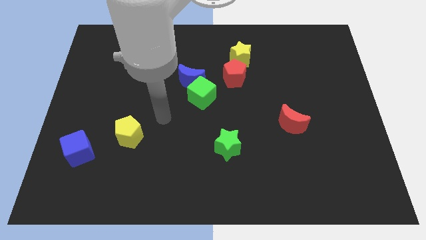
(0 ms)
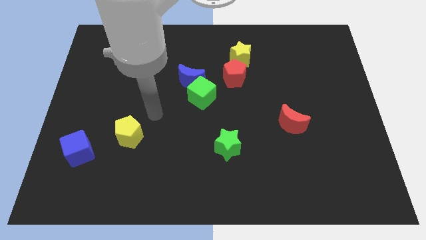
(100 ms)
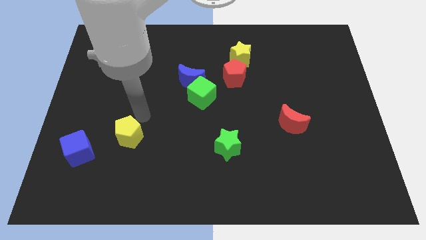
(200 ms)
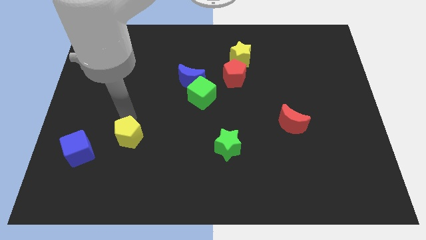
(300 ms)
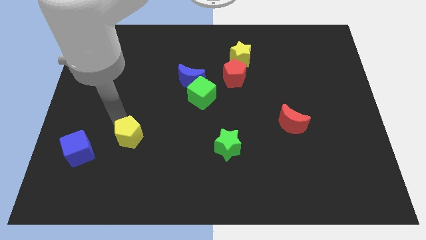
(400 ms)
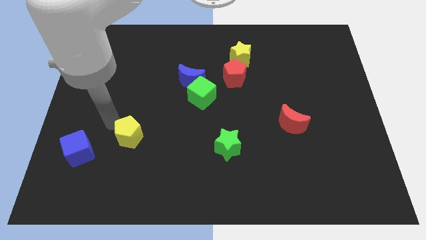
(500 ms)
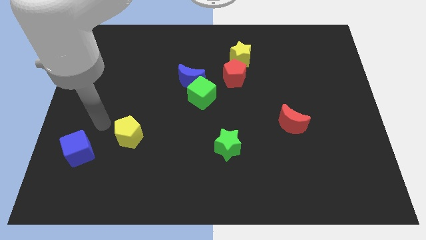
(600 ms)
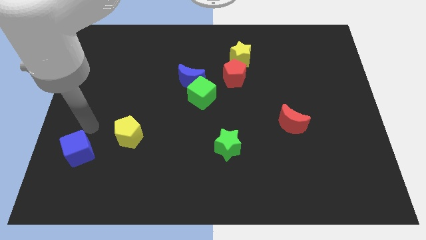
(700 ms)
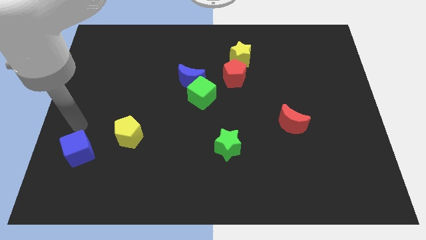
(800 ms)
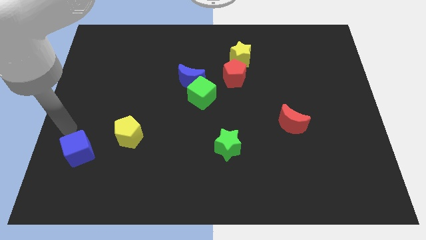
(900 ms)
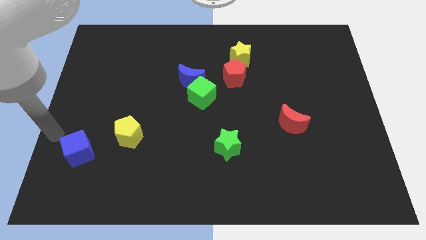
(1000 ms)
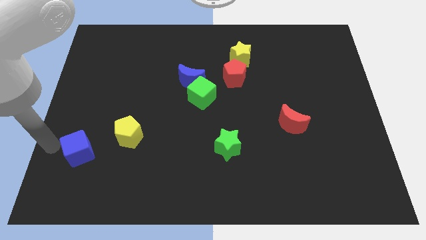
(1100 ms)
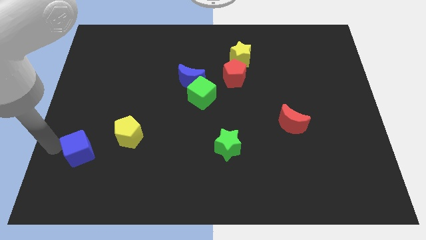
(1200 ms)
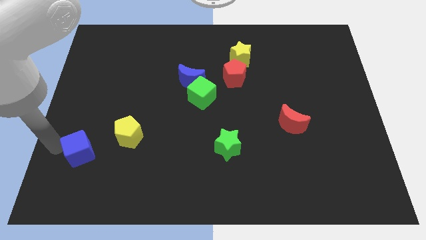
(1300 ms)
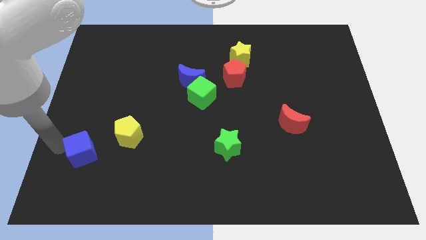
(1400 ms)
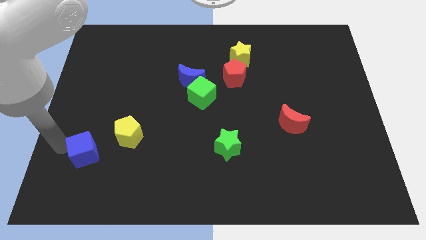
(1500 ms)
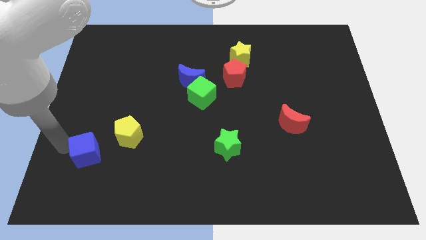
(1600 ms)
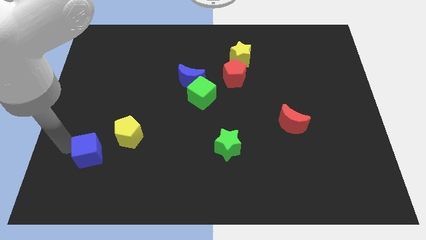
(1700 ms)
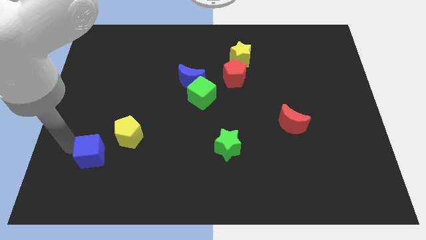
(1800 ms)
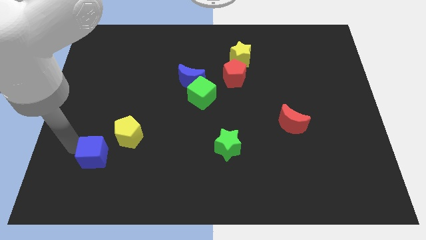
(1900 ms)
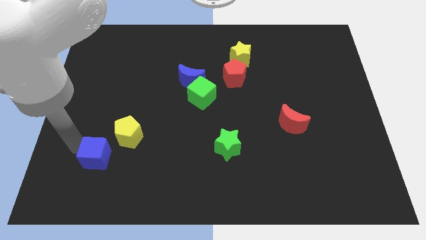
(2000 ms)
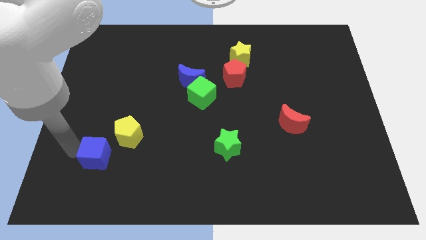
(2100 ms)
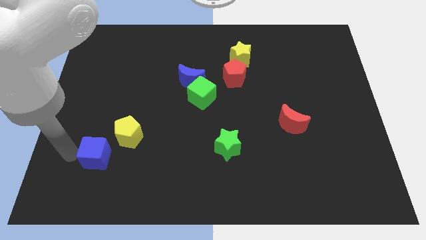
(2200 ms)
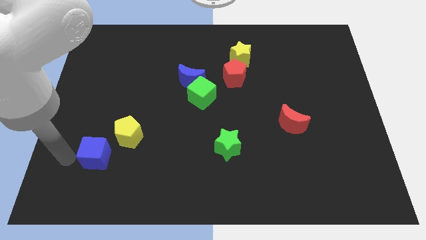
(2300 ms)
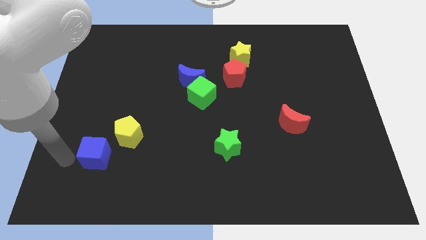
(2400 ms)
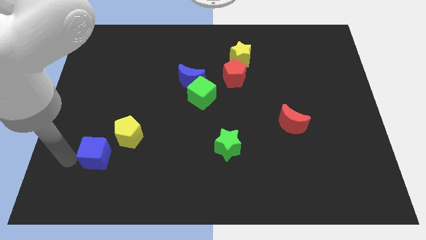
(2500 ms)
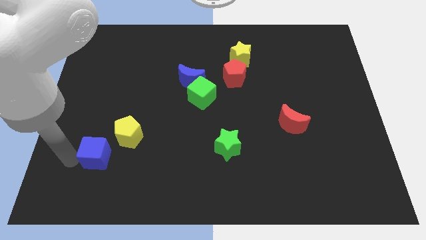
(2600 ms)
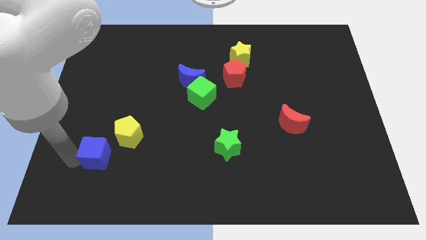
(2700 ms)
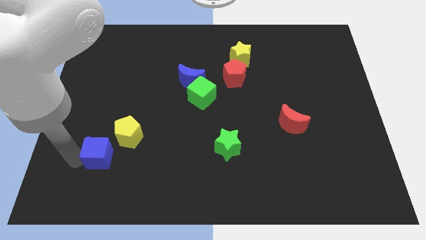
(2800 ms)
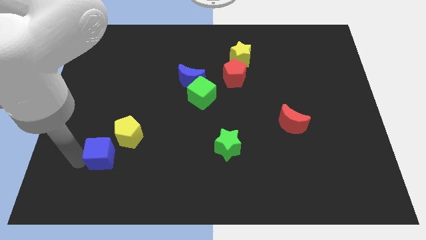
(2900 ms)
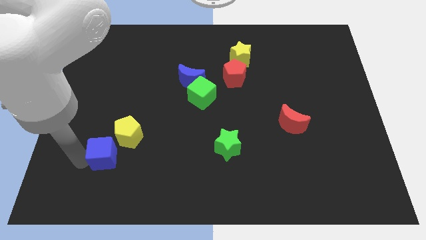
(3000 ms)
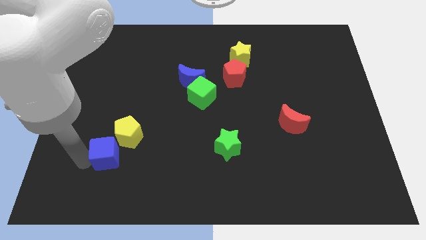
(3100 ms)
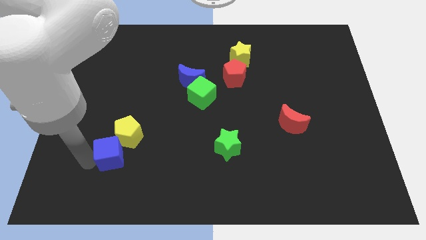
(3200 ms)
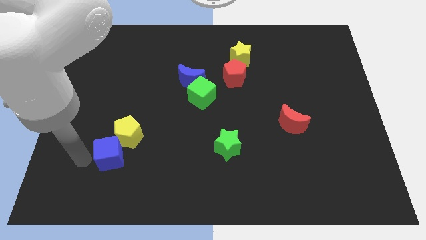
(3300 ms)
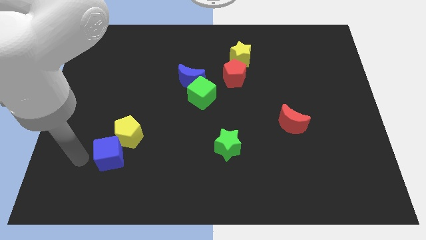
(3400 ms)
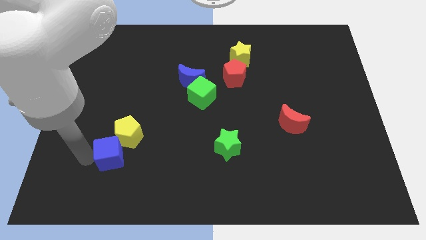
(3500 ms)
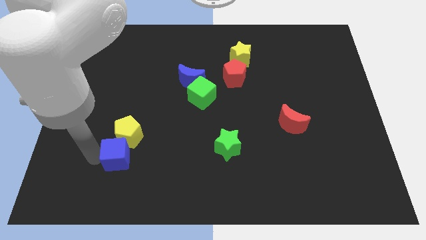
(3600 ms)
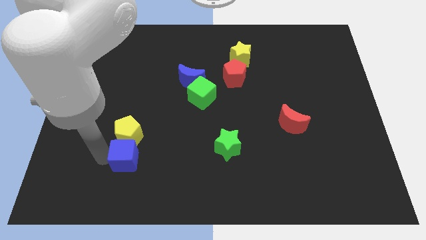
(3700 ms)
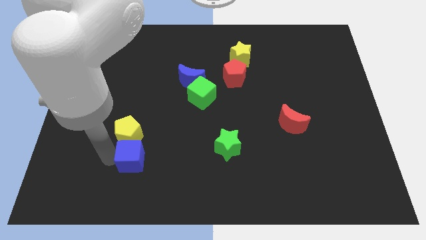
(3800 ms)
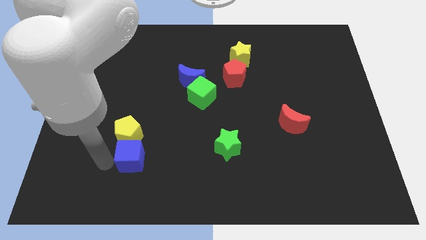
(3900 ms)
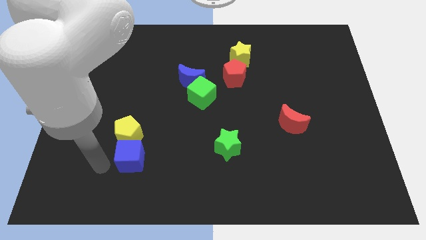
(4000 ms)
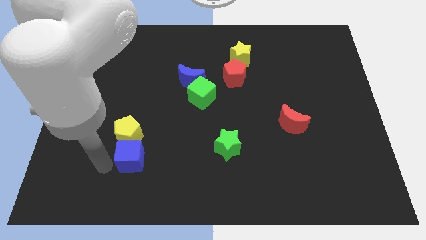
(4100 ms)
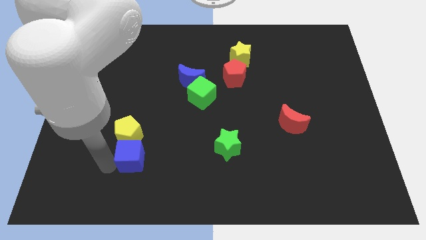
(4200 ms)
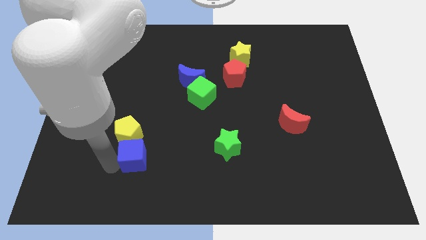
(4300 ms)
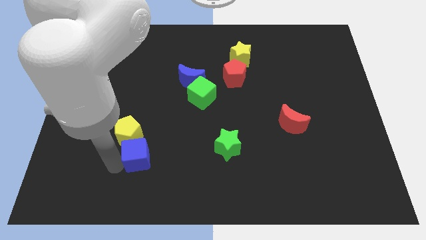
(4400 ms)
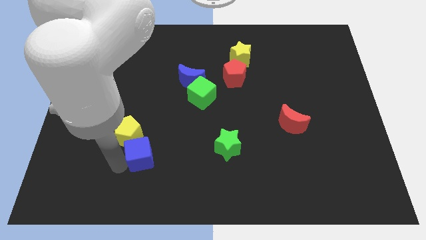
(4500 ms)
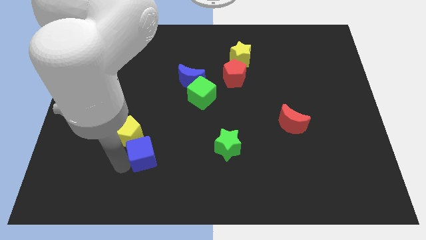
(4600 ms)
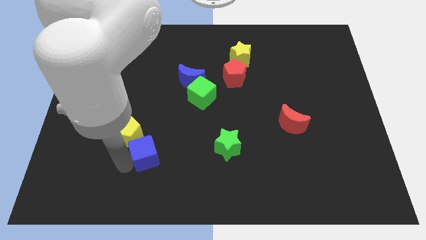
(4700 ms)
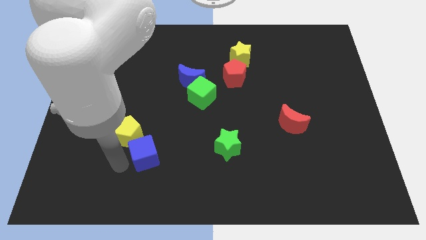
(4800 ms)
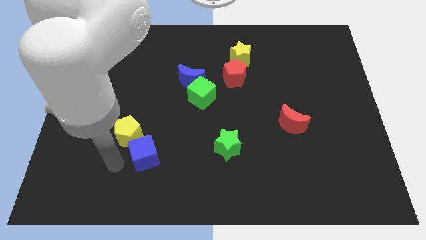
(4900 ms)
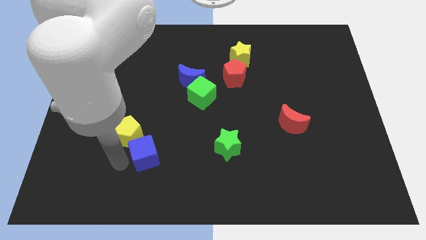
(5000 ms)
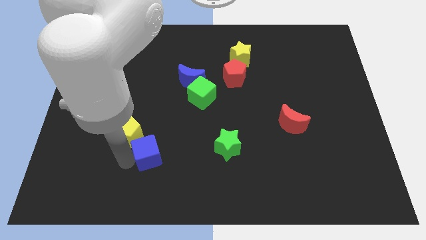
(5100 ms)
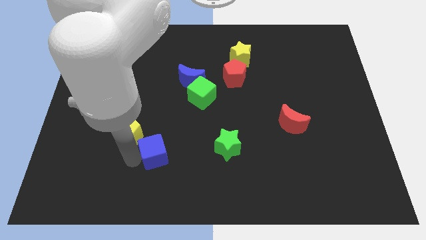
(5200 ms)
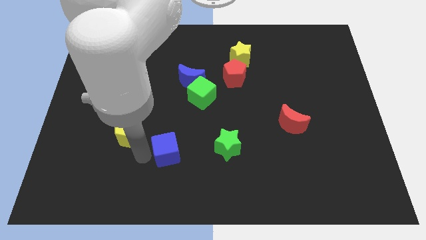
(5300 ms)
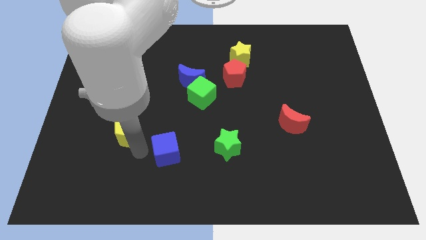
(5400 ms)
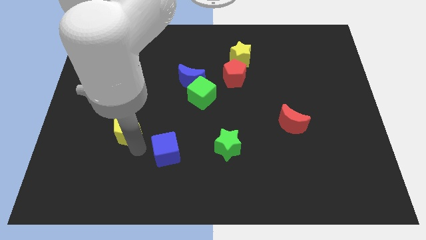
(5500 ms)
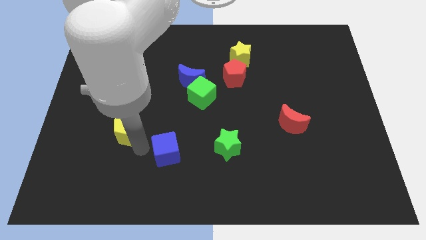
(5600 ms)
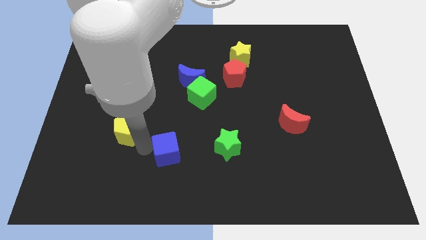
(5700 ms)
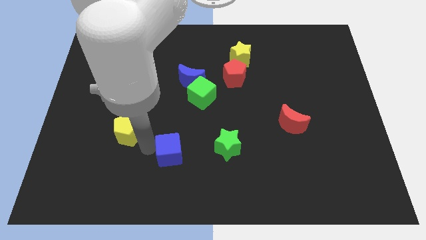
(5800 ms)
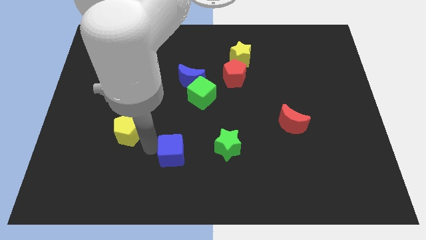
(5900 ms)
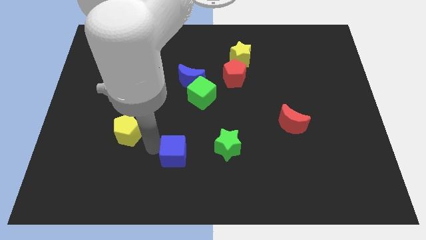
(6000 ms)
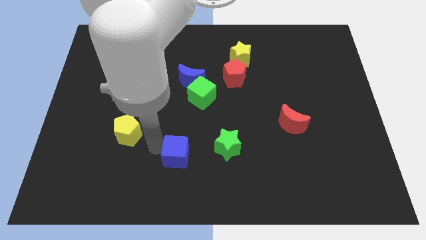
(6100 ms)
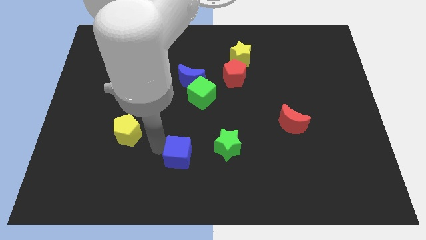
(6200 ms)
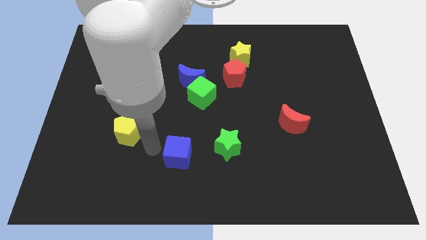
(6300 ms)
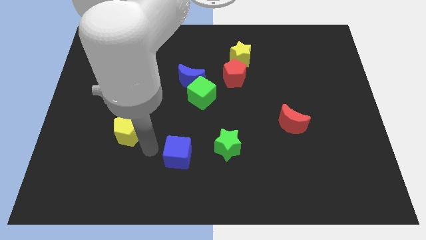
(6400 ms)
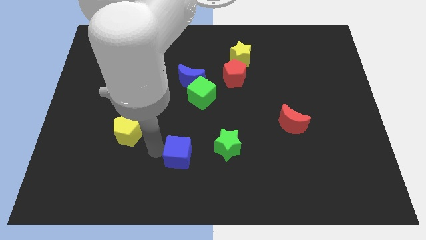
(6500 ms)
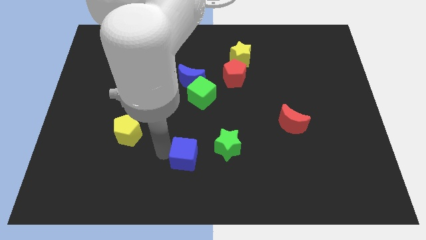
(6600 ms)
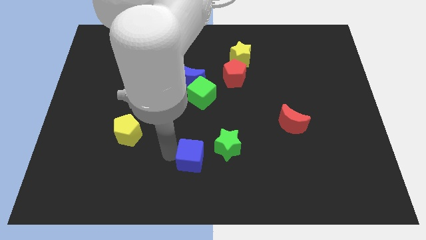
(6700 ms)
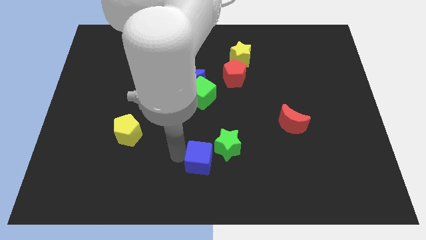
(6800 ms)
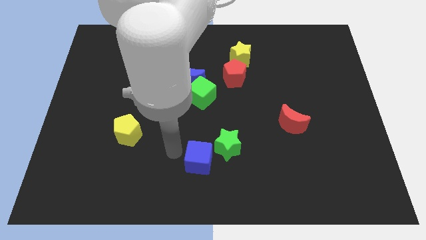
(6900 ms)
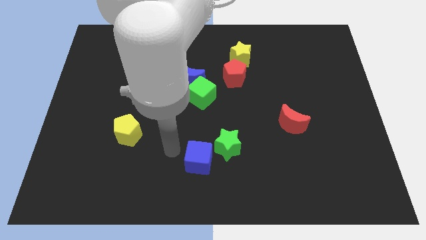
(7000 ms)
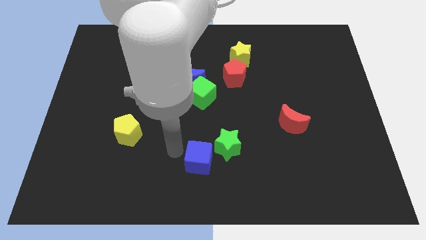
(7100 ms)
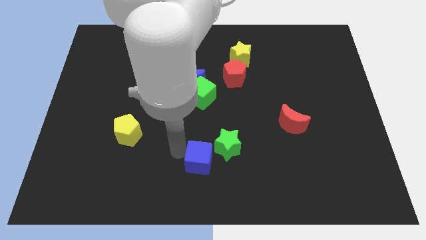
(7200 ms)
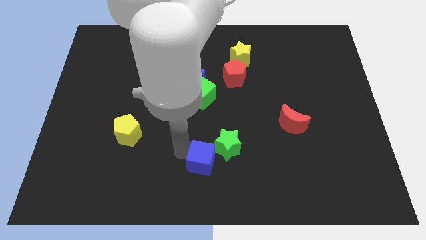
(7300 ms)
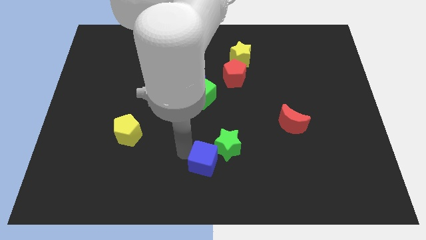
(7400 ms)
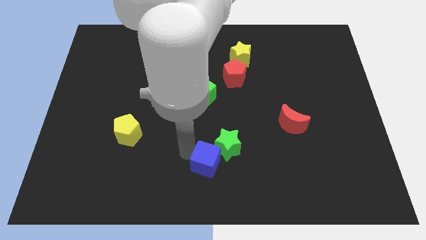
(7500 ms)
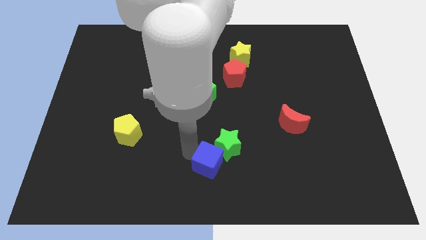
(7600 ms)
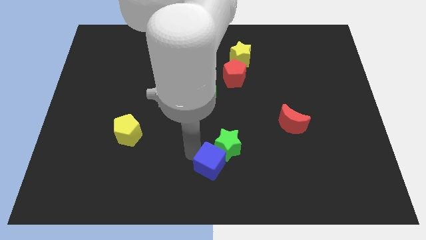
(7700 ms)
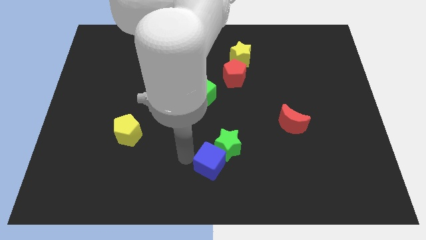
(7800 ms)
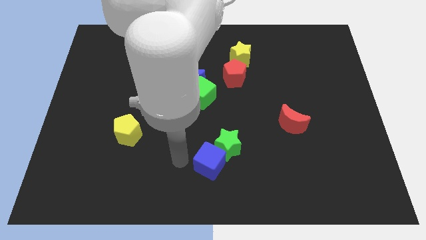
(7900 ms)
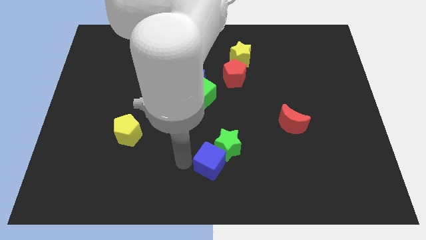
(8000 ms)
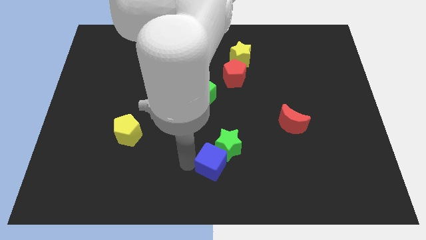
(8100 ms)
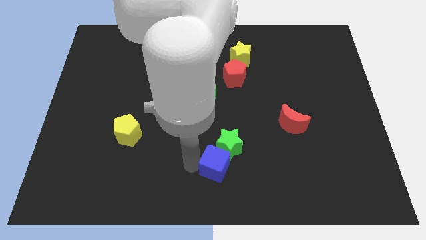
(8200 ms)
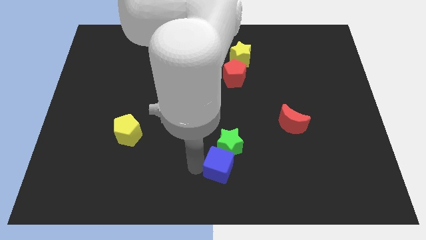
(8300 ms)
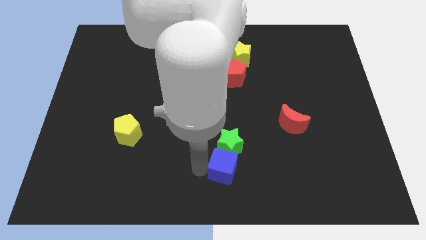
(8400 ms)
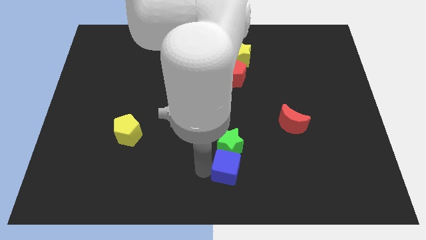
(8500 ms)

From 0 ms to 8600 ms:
move the blue cube to the bottom right of the green star
